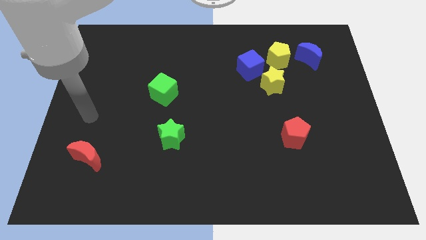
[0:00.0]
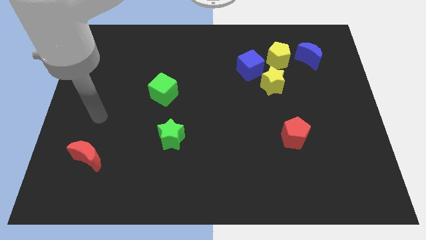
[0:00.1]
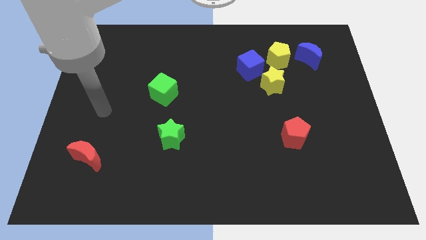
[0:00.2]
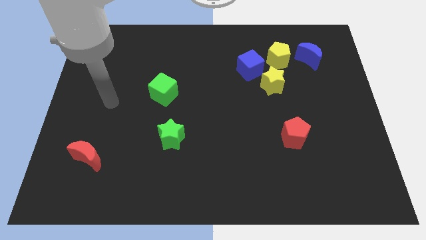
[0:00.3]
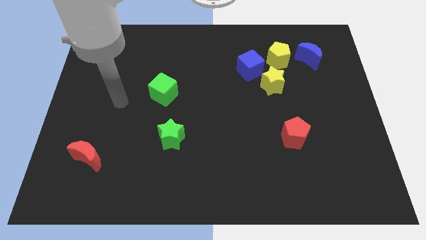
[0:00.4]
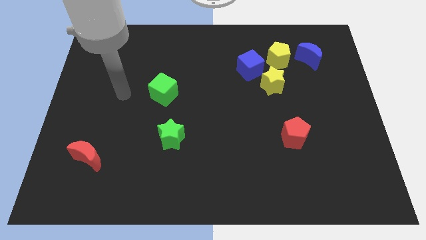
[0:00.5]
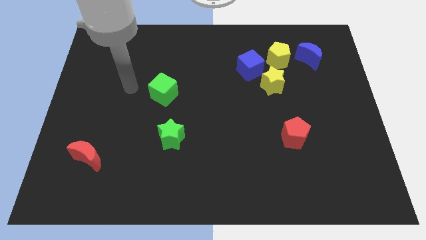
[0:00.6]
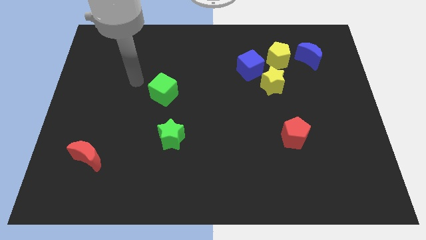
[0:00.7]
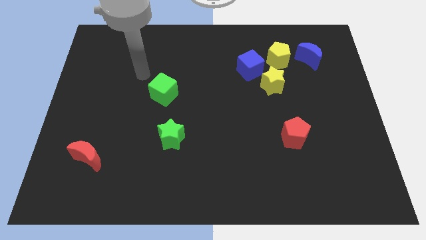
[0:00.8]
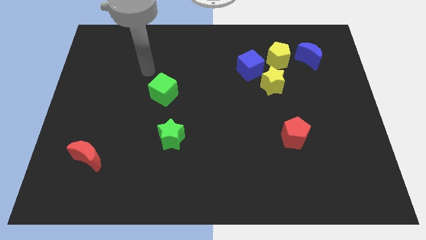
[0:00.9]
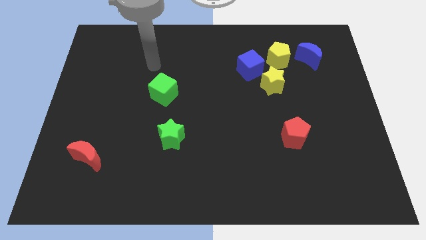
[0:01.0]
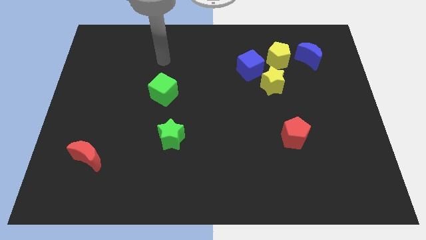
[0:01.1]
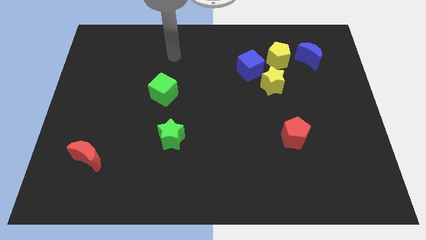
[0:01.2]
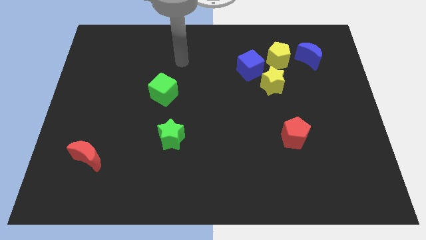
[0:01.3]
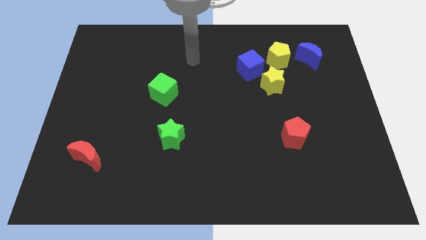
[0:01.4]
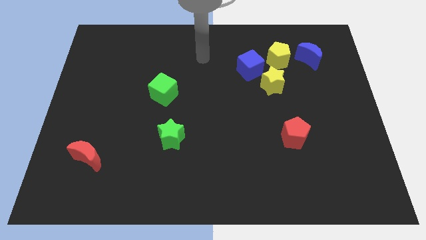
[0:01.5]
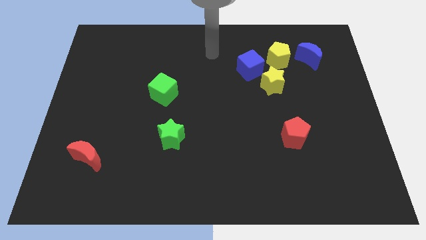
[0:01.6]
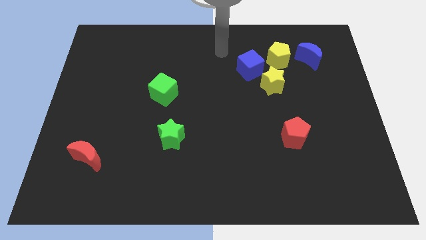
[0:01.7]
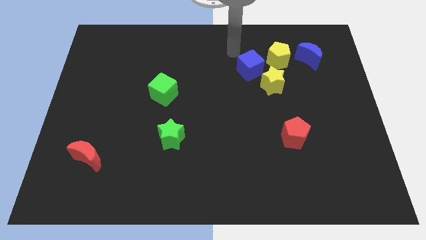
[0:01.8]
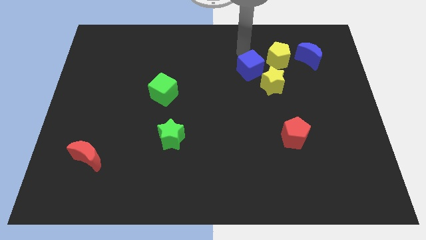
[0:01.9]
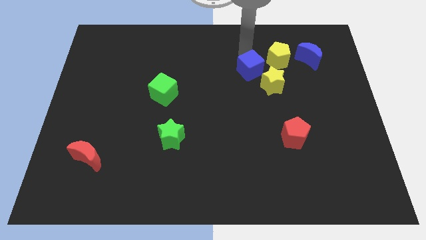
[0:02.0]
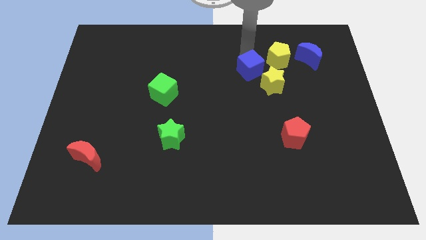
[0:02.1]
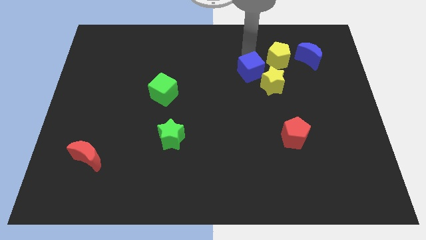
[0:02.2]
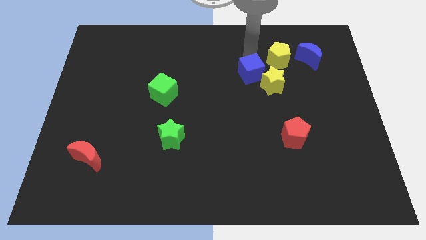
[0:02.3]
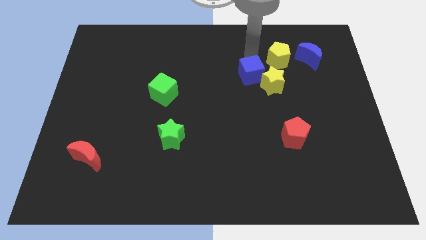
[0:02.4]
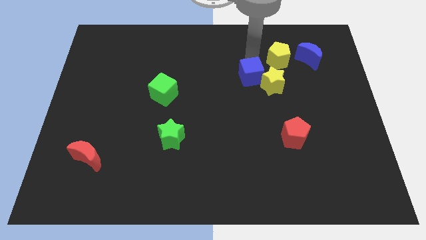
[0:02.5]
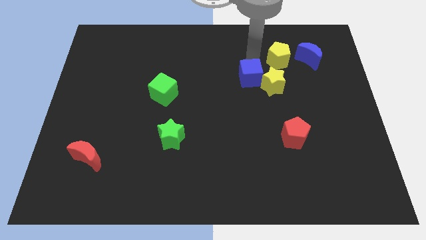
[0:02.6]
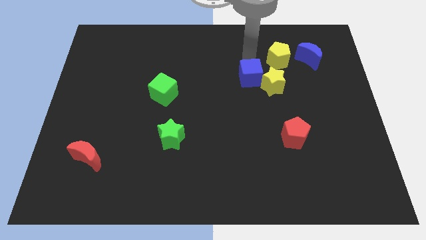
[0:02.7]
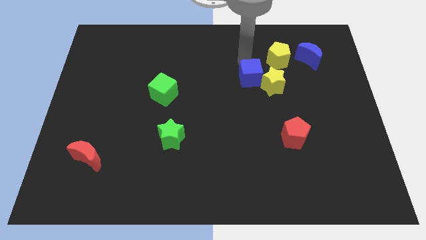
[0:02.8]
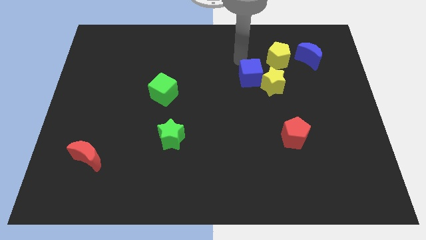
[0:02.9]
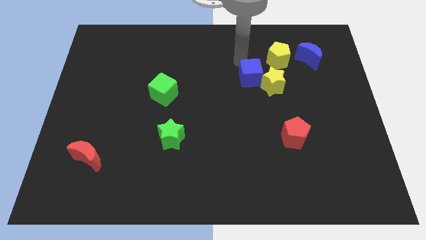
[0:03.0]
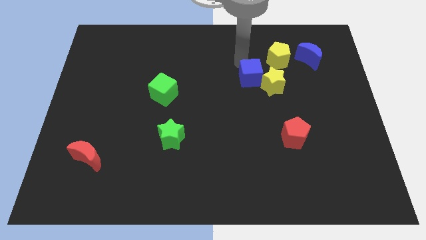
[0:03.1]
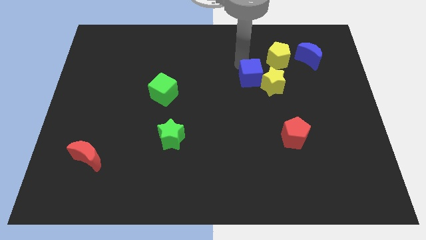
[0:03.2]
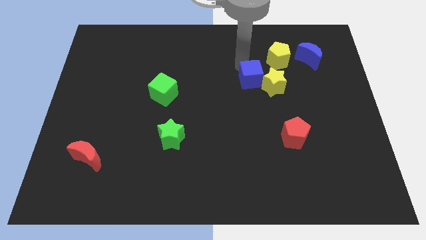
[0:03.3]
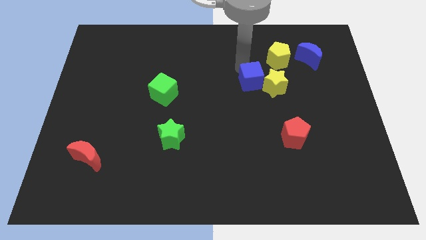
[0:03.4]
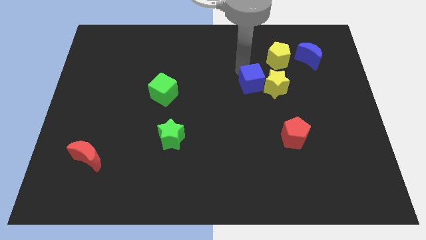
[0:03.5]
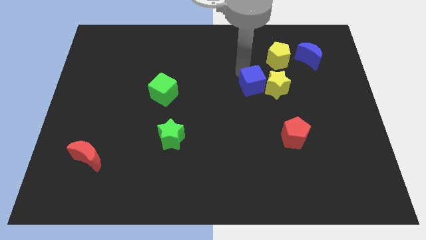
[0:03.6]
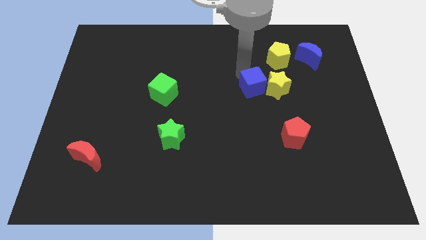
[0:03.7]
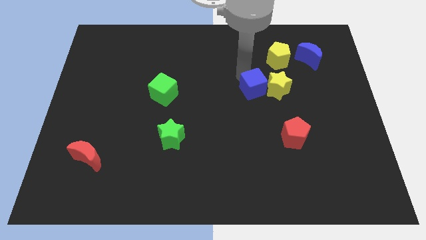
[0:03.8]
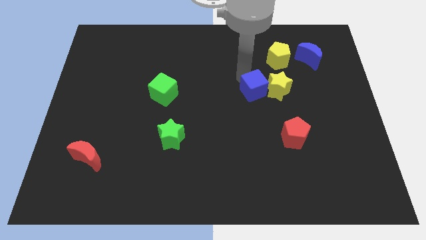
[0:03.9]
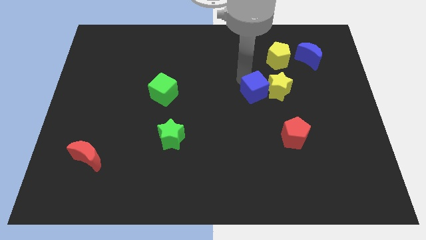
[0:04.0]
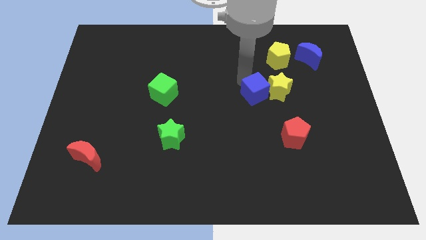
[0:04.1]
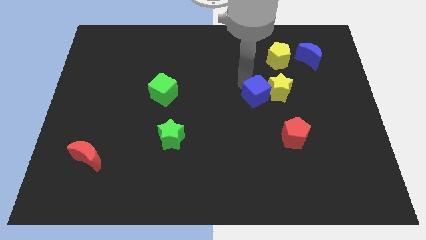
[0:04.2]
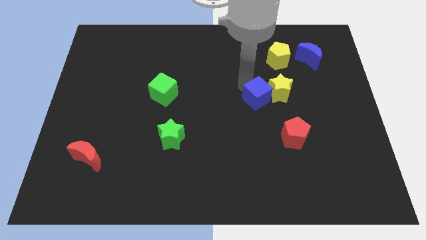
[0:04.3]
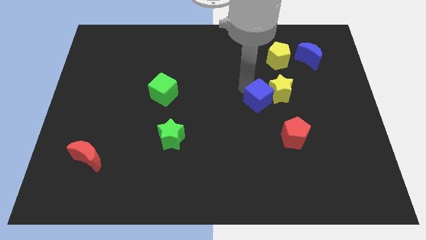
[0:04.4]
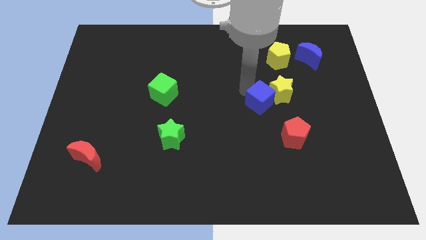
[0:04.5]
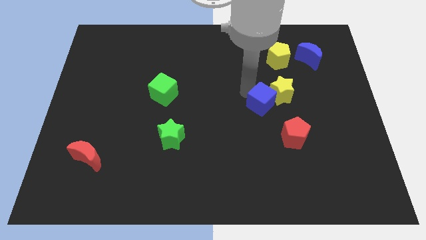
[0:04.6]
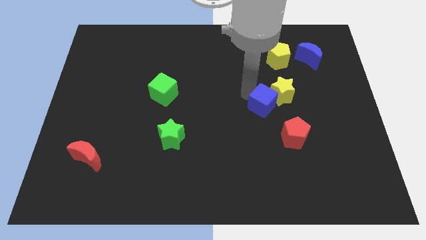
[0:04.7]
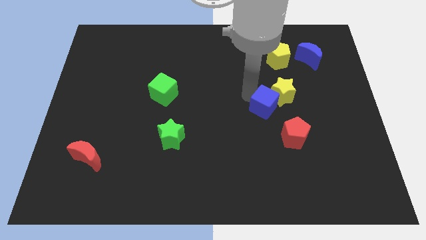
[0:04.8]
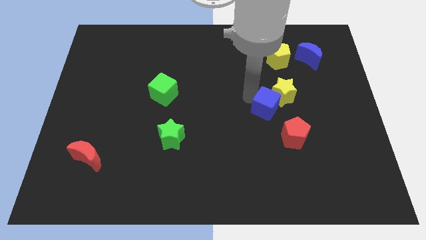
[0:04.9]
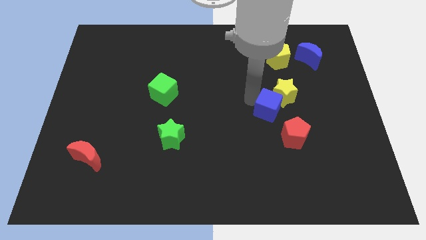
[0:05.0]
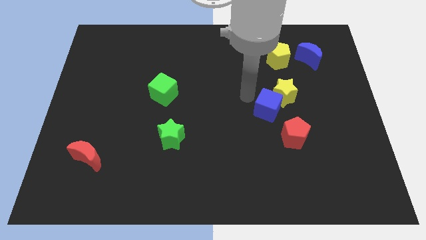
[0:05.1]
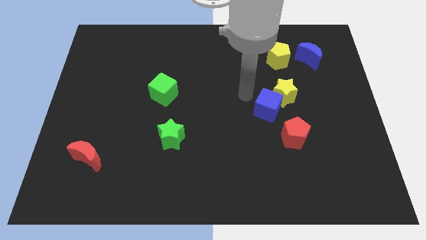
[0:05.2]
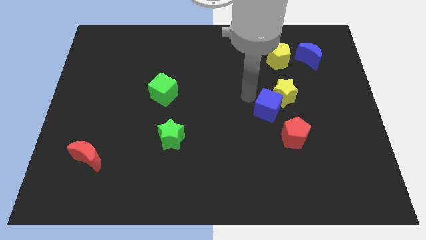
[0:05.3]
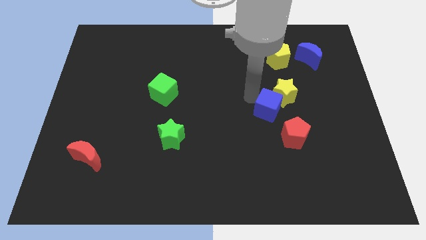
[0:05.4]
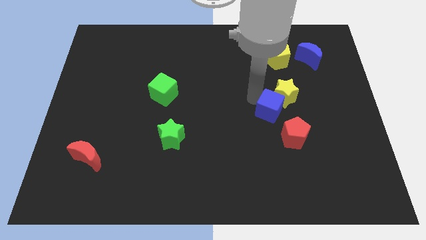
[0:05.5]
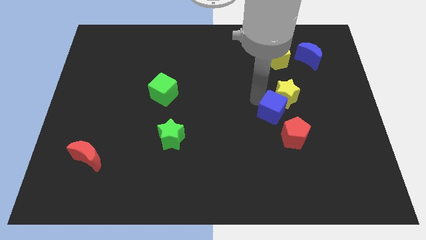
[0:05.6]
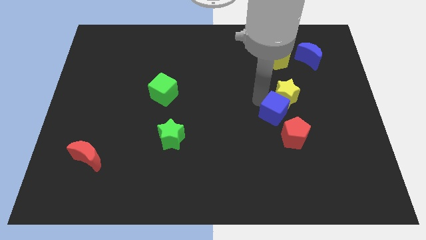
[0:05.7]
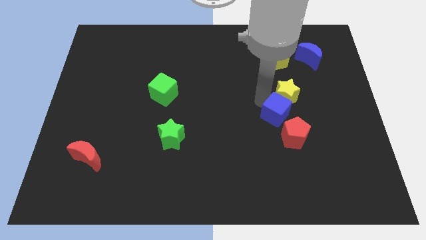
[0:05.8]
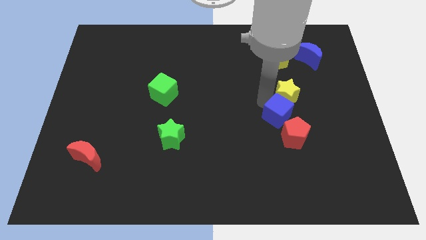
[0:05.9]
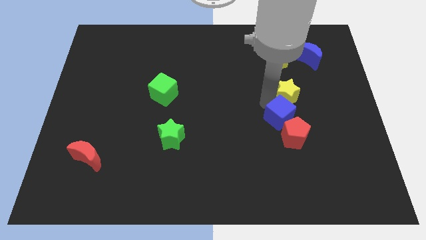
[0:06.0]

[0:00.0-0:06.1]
slide the blue cube next to the red pentagon

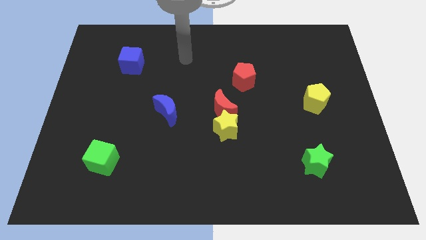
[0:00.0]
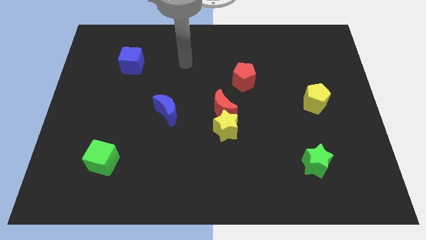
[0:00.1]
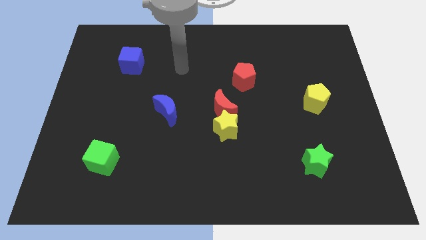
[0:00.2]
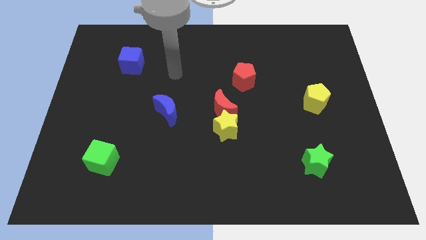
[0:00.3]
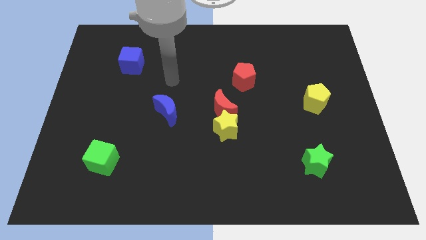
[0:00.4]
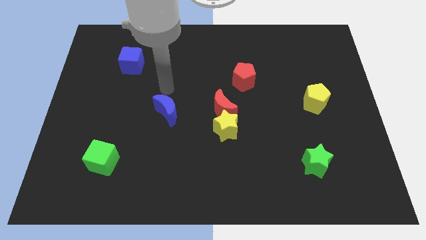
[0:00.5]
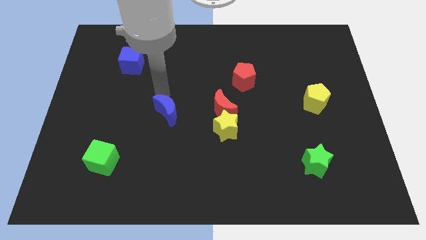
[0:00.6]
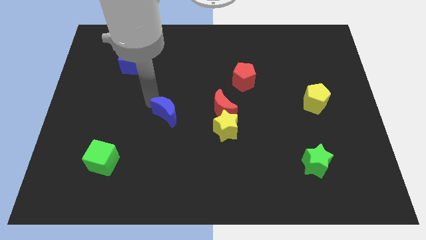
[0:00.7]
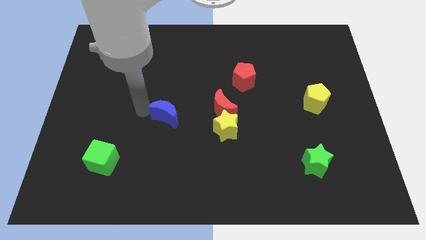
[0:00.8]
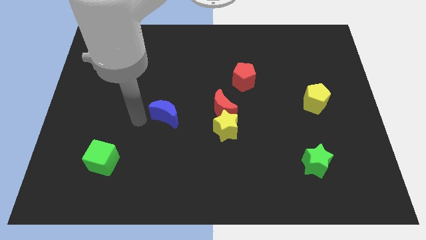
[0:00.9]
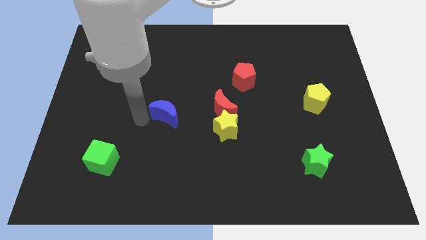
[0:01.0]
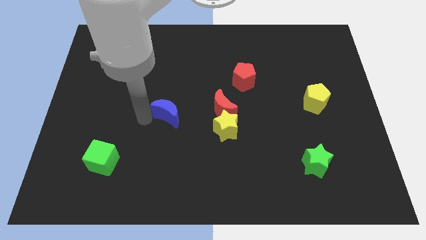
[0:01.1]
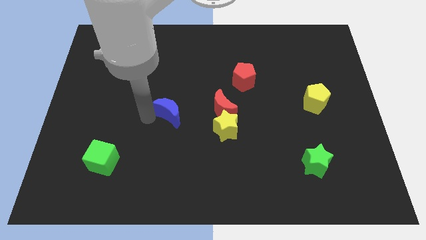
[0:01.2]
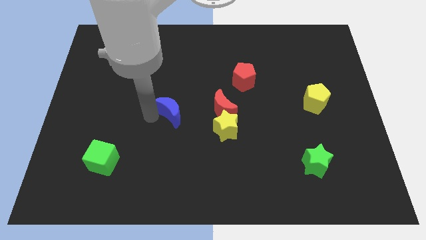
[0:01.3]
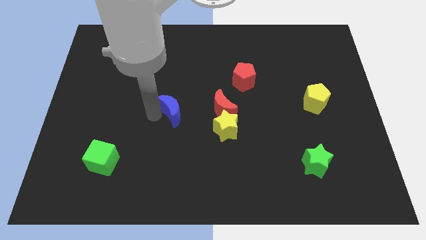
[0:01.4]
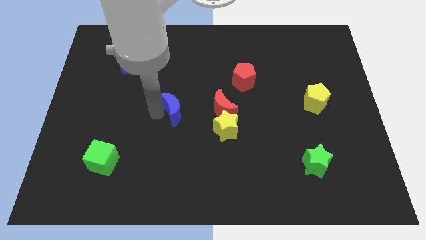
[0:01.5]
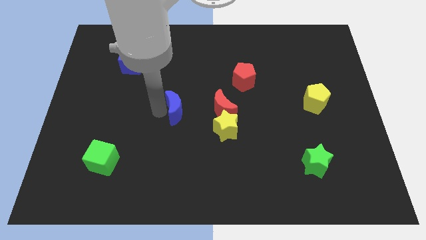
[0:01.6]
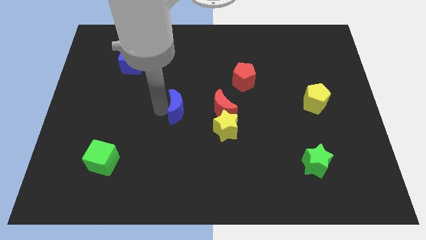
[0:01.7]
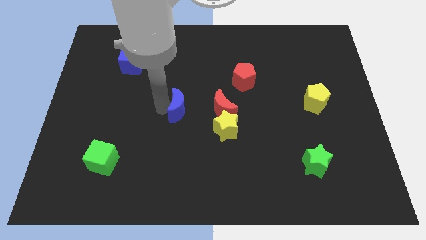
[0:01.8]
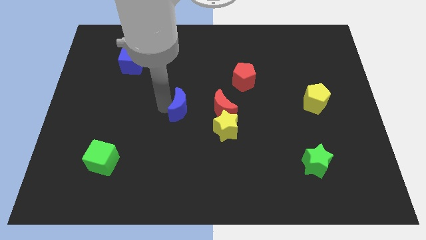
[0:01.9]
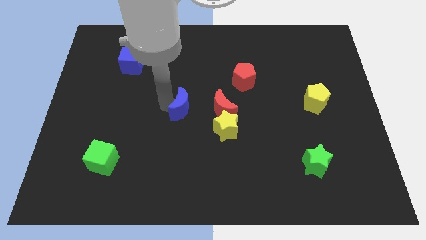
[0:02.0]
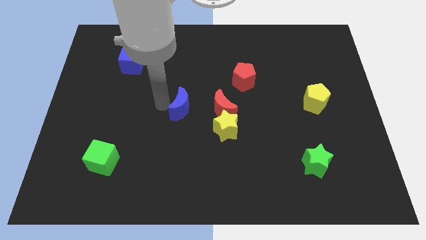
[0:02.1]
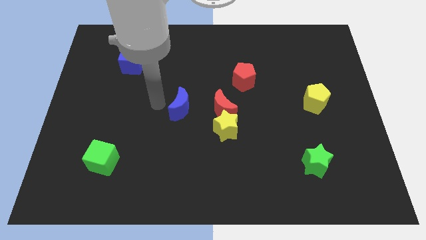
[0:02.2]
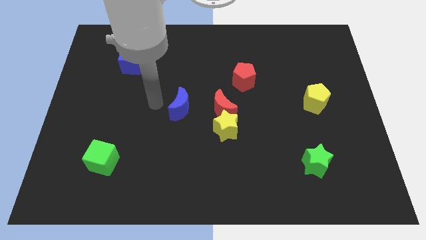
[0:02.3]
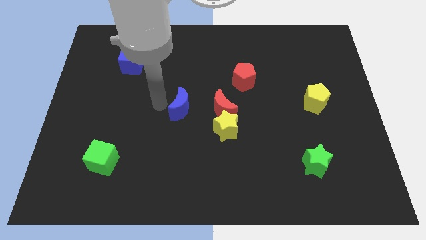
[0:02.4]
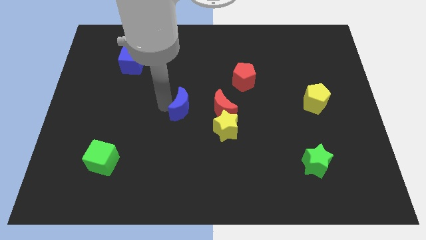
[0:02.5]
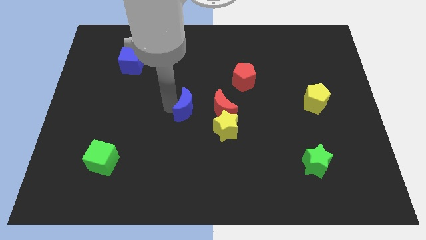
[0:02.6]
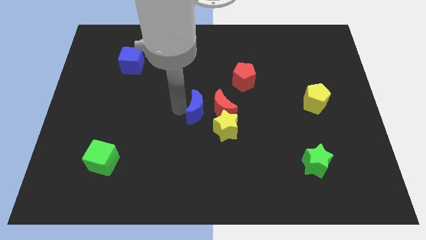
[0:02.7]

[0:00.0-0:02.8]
slide the blue moon to the red moon
